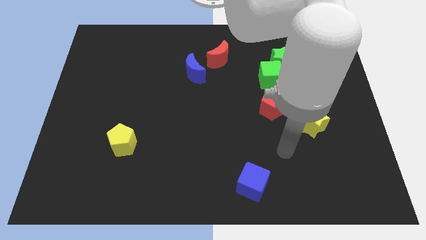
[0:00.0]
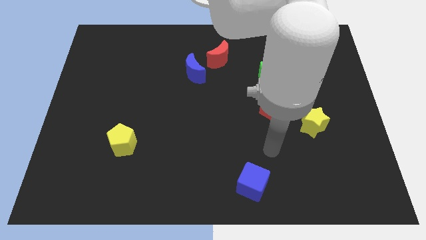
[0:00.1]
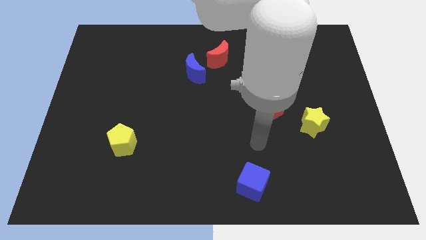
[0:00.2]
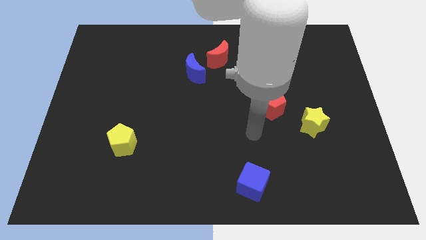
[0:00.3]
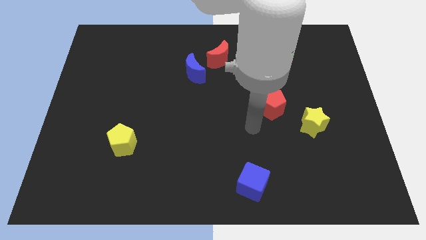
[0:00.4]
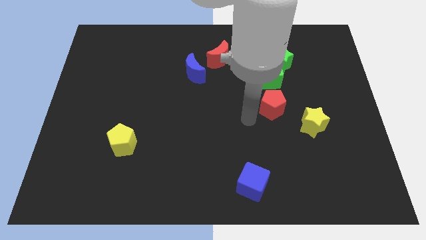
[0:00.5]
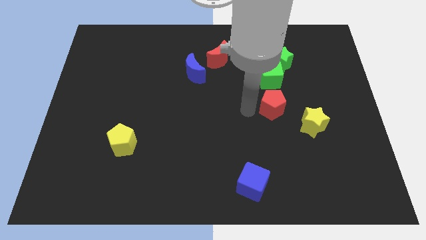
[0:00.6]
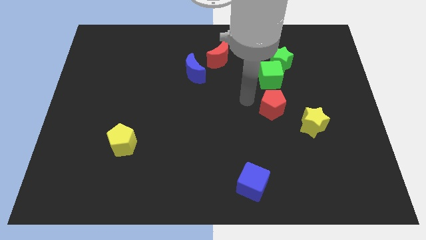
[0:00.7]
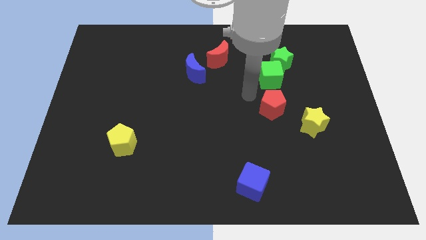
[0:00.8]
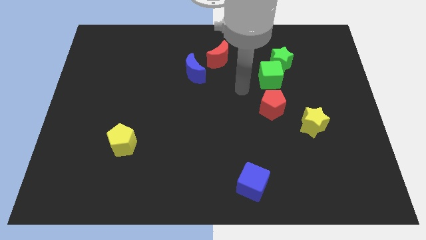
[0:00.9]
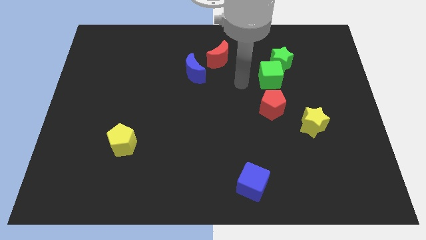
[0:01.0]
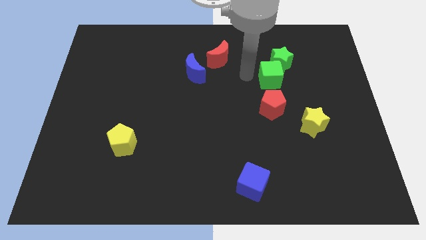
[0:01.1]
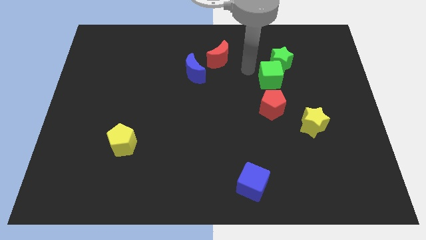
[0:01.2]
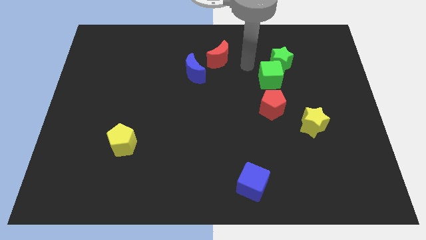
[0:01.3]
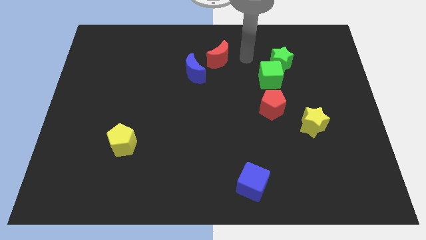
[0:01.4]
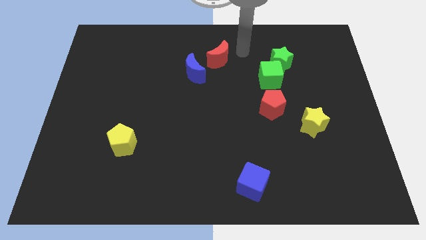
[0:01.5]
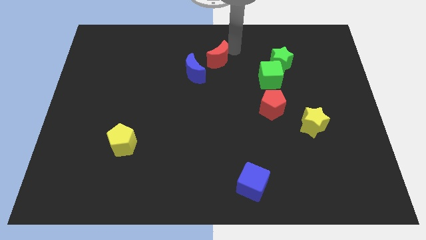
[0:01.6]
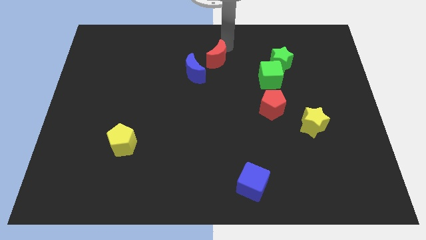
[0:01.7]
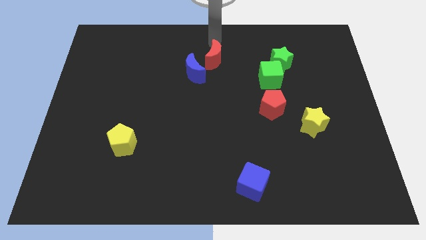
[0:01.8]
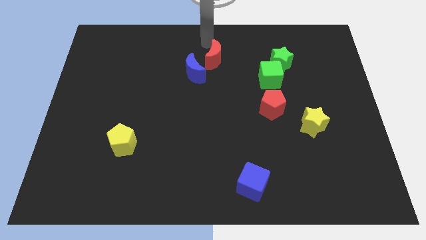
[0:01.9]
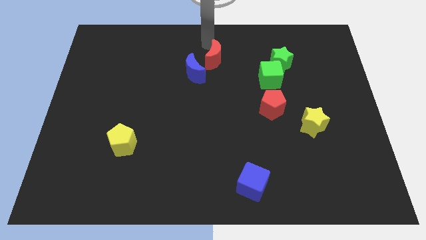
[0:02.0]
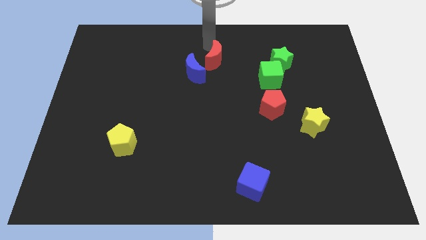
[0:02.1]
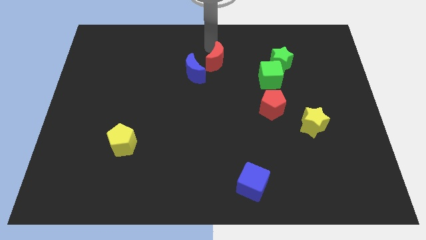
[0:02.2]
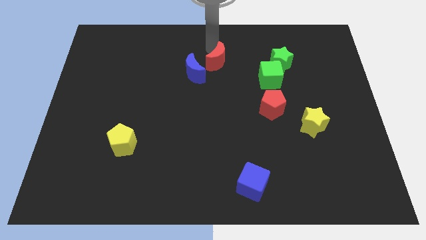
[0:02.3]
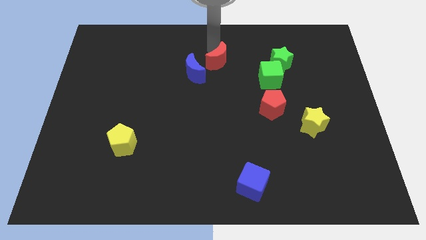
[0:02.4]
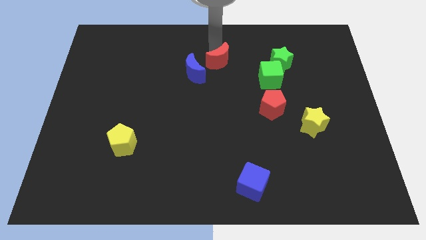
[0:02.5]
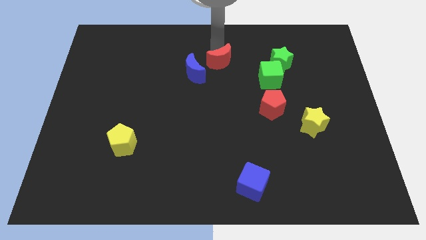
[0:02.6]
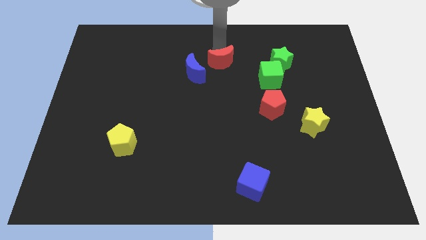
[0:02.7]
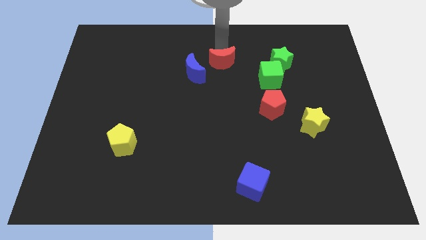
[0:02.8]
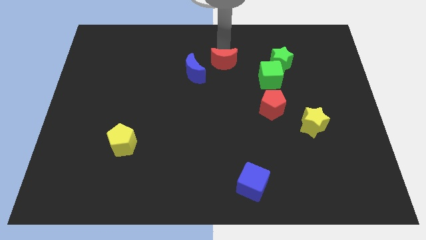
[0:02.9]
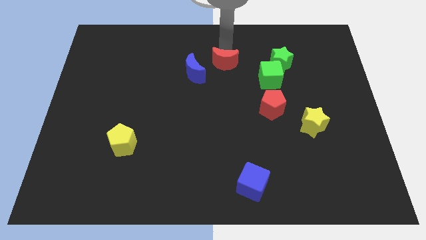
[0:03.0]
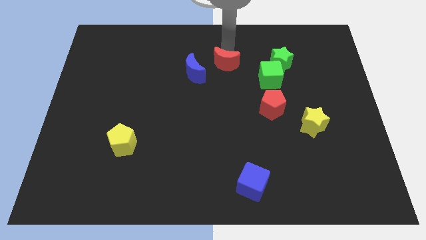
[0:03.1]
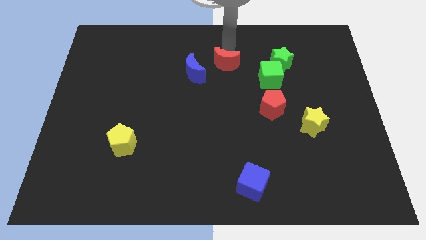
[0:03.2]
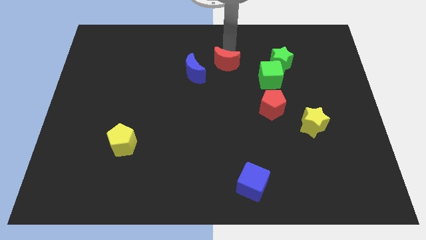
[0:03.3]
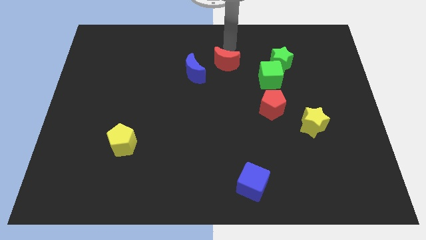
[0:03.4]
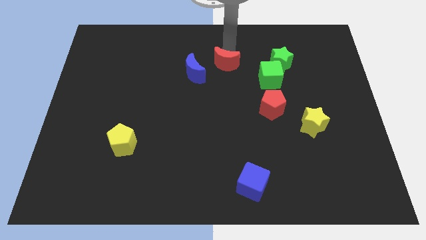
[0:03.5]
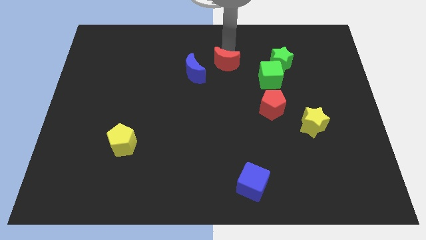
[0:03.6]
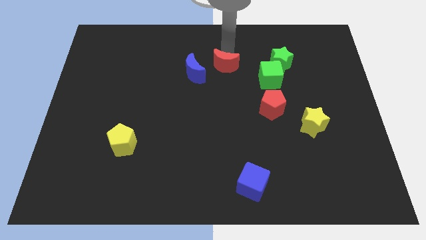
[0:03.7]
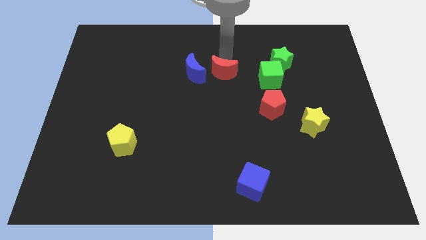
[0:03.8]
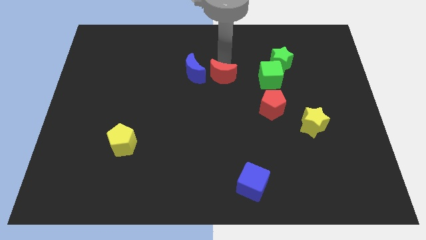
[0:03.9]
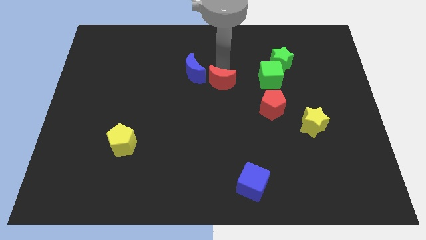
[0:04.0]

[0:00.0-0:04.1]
slightly push the red moon downwards

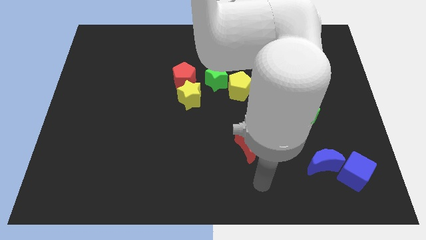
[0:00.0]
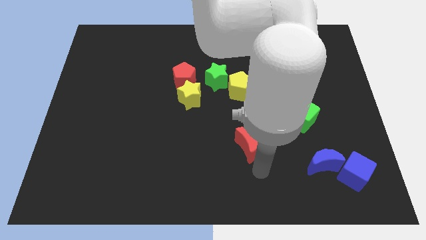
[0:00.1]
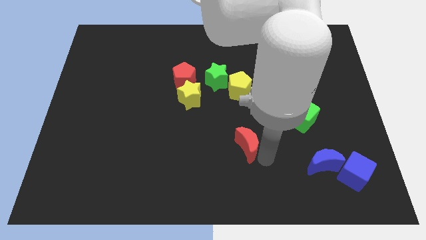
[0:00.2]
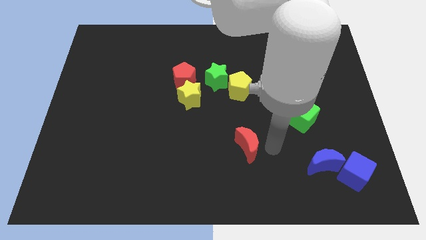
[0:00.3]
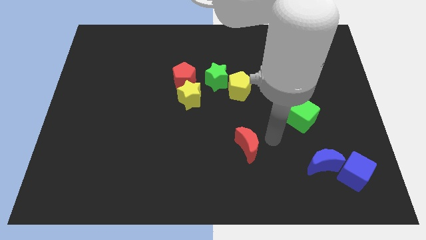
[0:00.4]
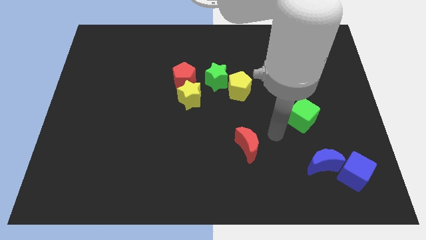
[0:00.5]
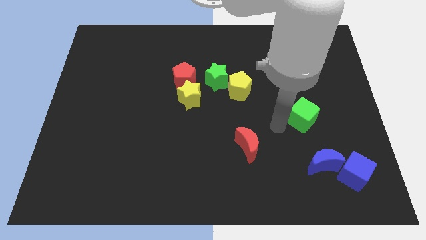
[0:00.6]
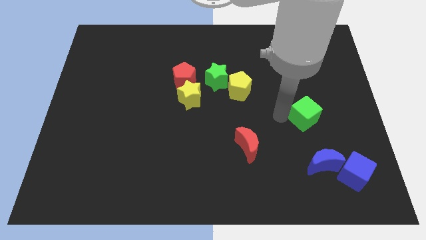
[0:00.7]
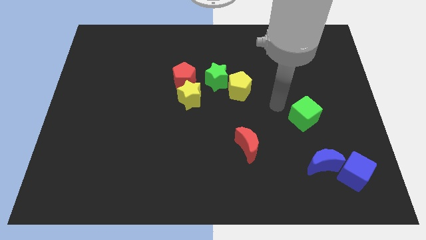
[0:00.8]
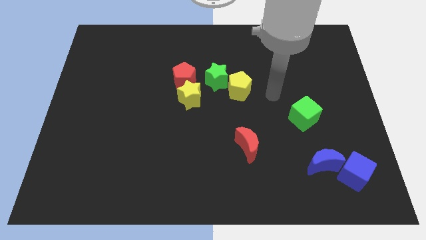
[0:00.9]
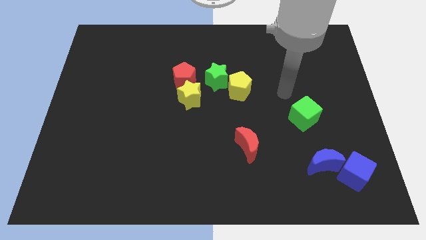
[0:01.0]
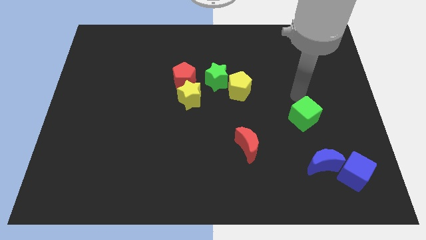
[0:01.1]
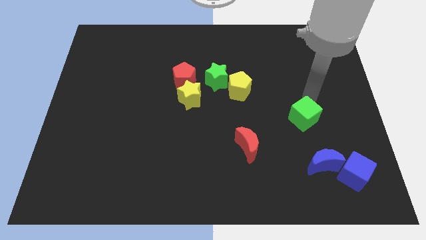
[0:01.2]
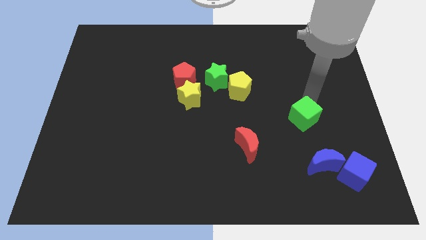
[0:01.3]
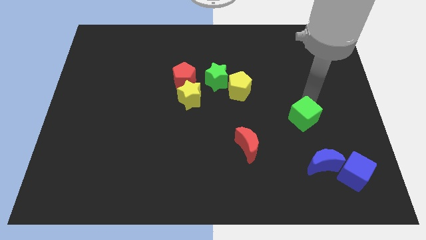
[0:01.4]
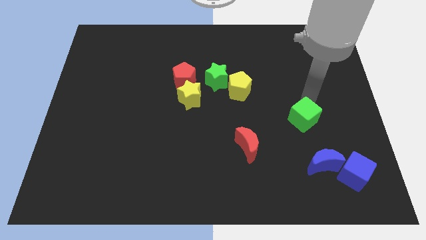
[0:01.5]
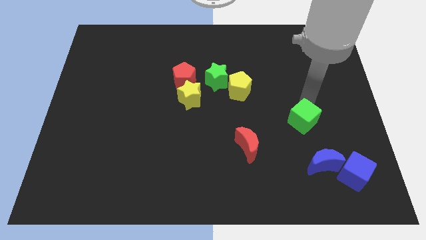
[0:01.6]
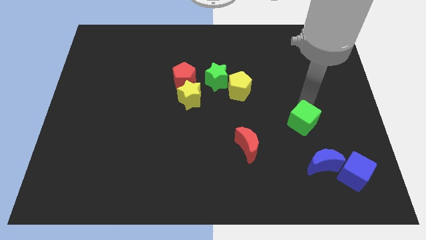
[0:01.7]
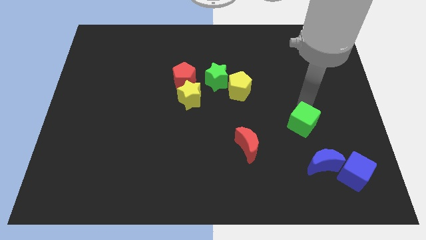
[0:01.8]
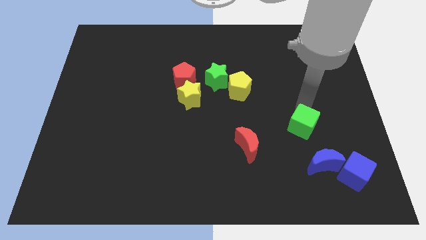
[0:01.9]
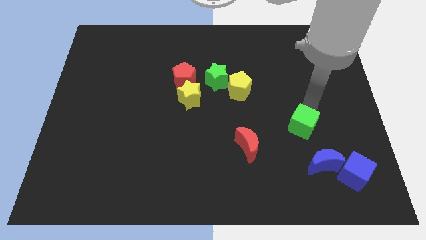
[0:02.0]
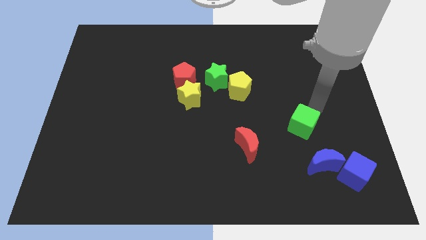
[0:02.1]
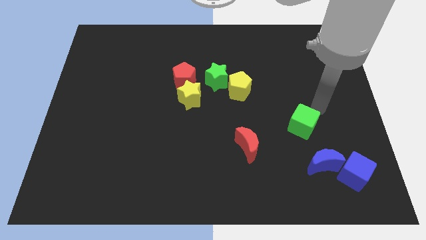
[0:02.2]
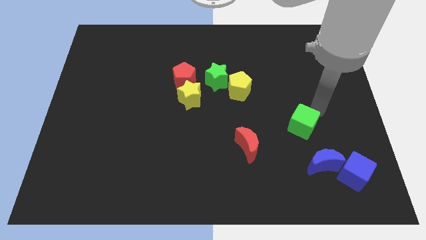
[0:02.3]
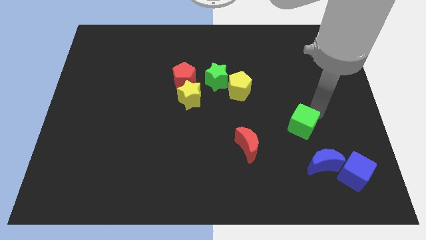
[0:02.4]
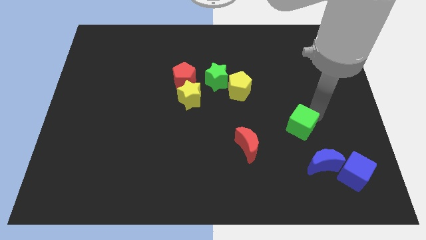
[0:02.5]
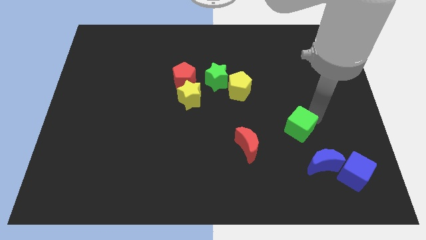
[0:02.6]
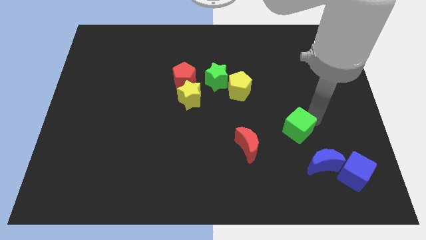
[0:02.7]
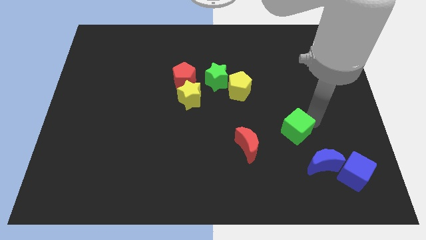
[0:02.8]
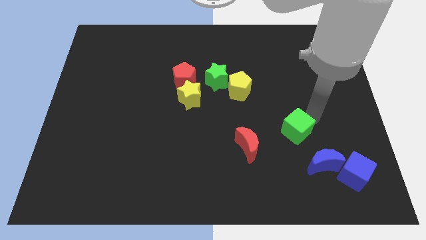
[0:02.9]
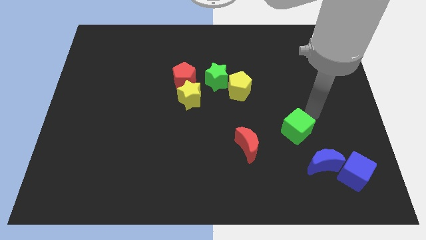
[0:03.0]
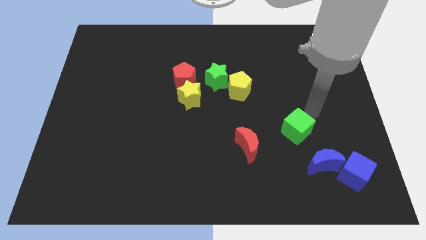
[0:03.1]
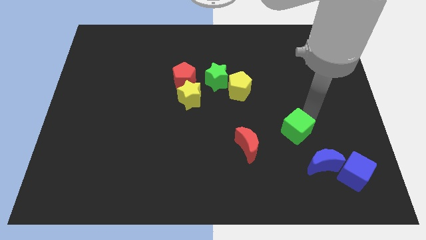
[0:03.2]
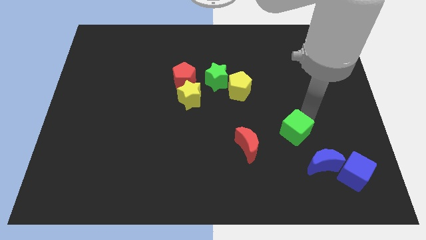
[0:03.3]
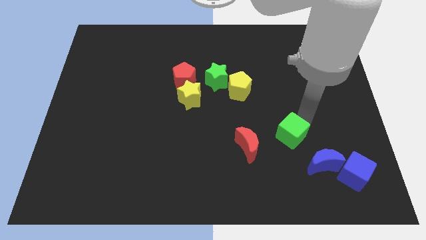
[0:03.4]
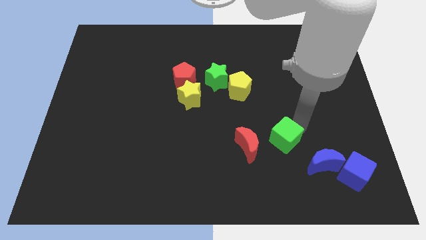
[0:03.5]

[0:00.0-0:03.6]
push the green cube a bit diagonally downwards and to the left

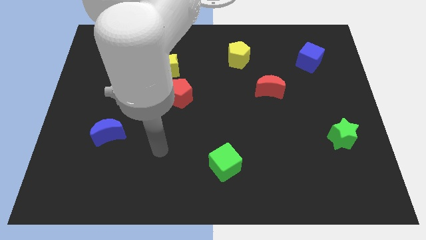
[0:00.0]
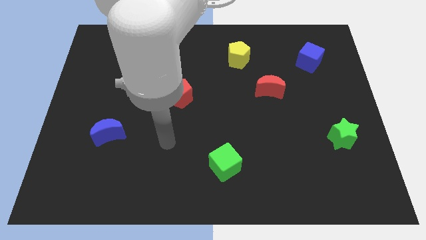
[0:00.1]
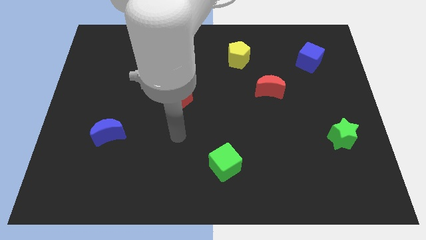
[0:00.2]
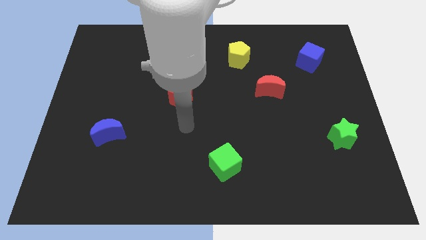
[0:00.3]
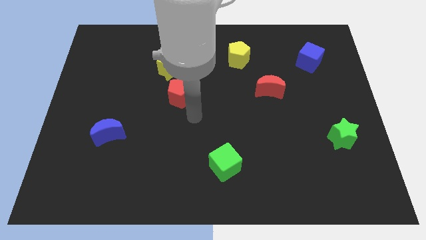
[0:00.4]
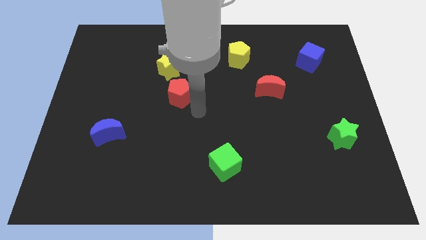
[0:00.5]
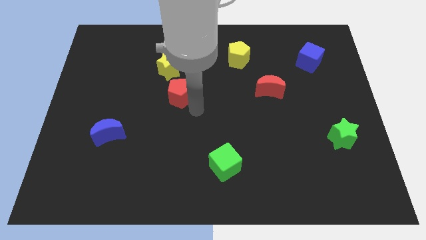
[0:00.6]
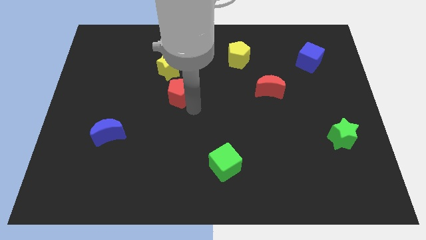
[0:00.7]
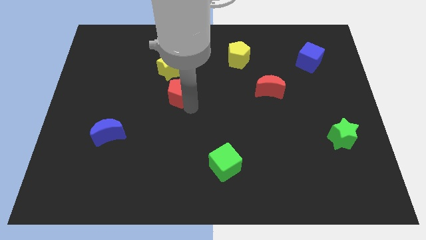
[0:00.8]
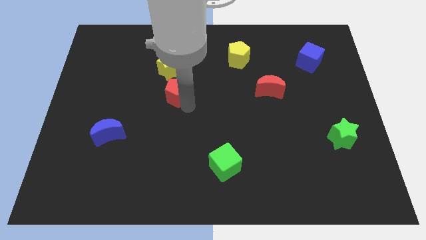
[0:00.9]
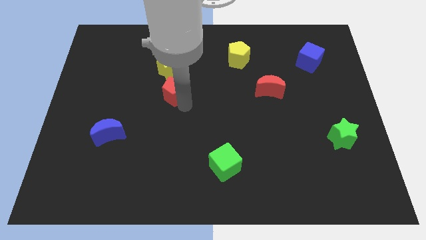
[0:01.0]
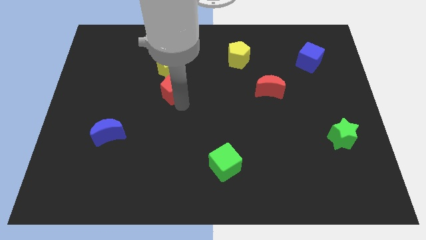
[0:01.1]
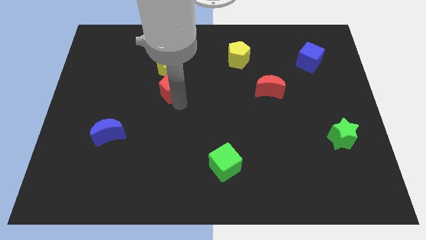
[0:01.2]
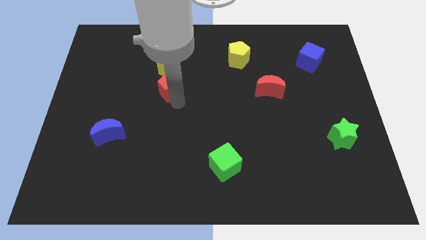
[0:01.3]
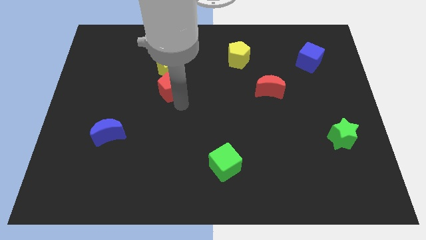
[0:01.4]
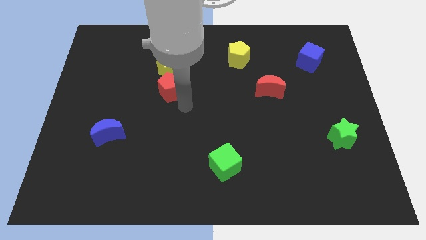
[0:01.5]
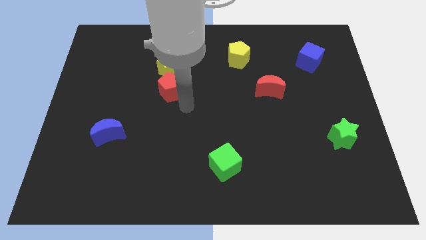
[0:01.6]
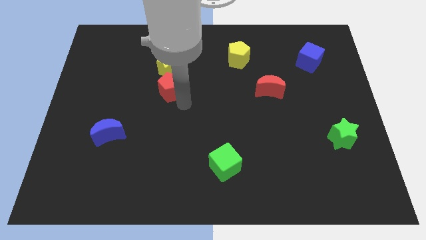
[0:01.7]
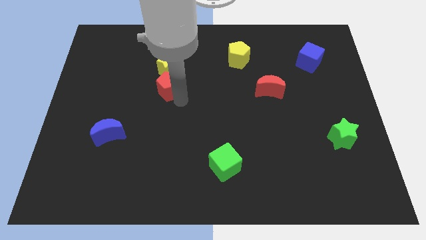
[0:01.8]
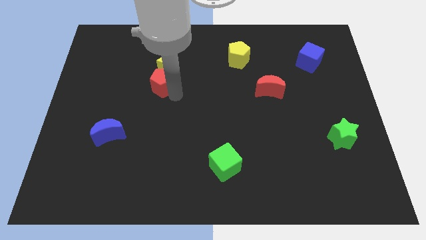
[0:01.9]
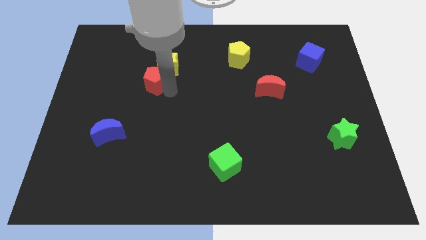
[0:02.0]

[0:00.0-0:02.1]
slightly slide the red pentagon up and then left
